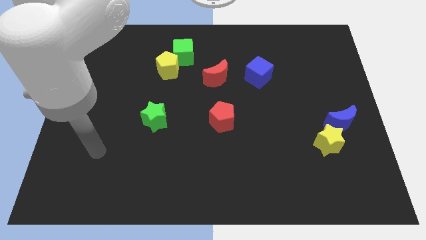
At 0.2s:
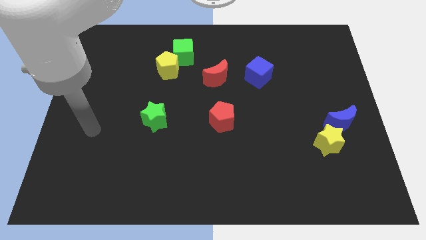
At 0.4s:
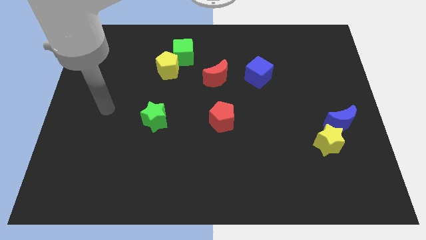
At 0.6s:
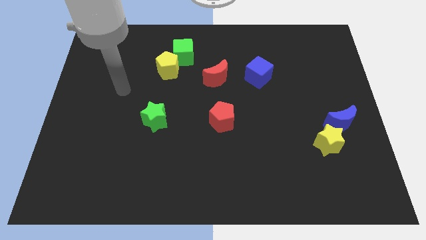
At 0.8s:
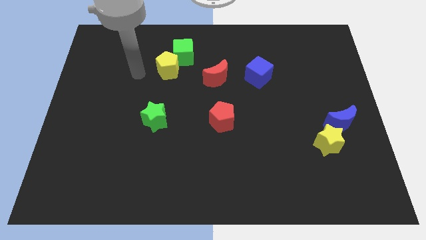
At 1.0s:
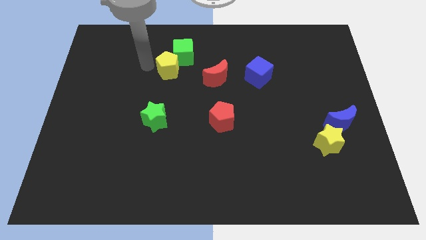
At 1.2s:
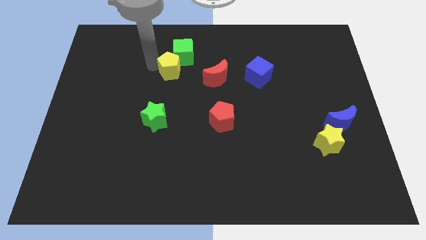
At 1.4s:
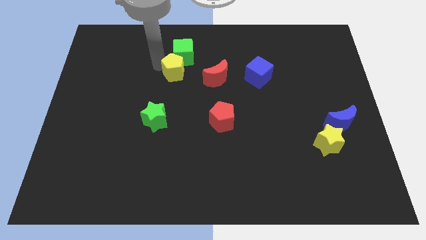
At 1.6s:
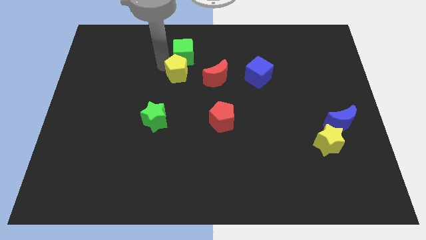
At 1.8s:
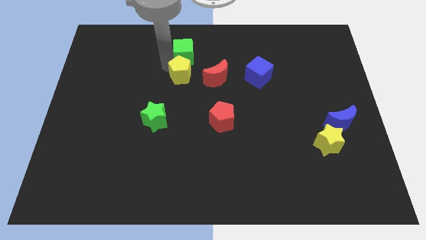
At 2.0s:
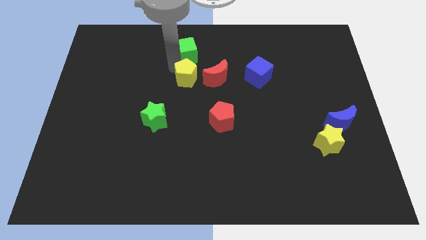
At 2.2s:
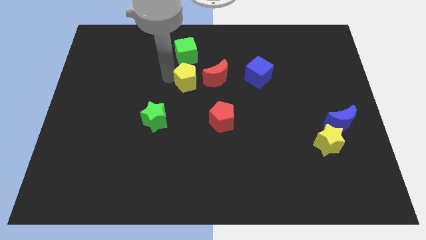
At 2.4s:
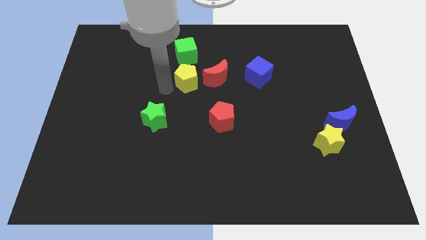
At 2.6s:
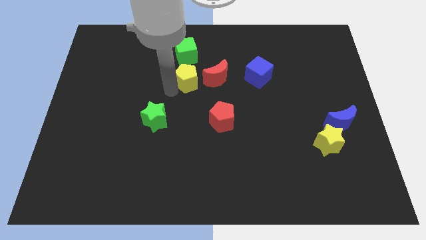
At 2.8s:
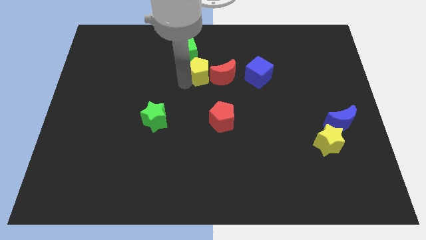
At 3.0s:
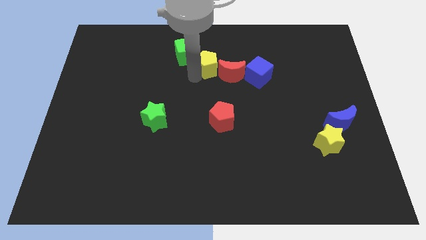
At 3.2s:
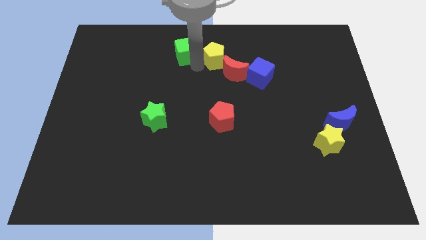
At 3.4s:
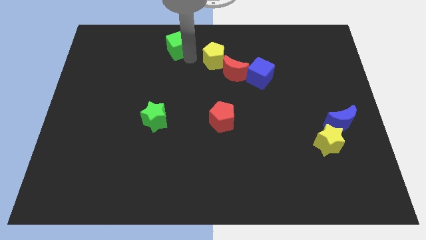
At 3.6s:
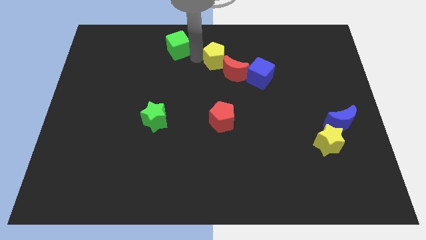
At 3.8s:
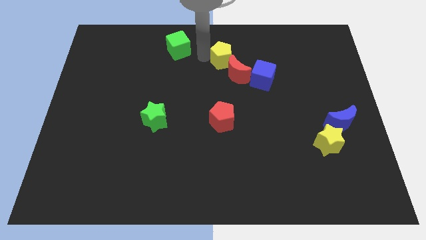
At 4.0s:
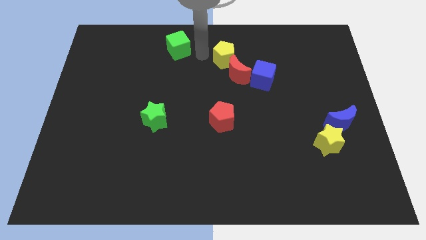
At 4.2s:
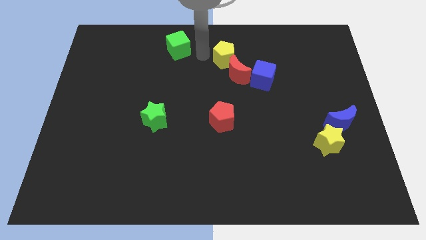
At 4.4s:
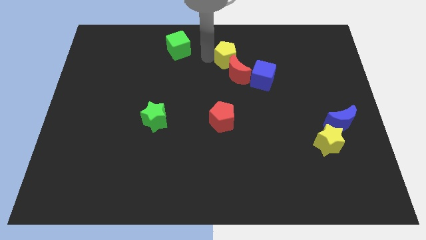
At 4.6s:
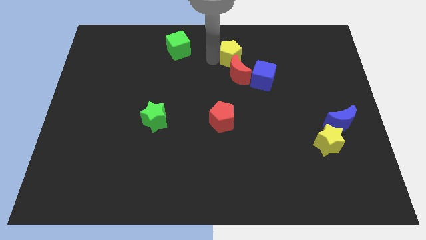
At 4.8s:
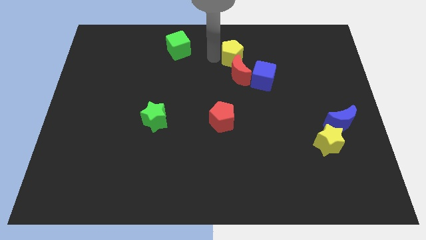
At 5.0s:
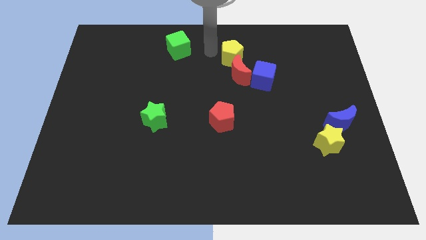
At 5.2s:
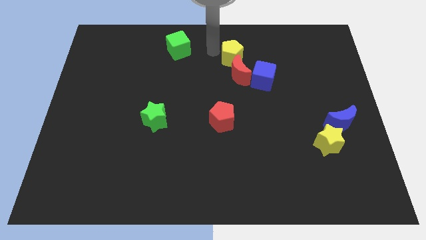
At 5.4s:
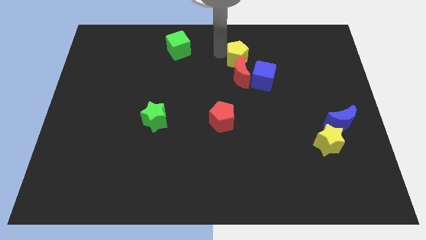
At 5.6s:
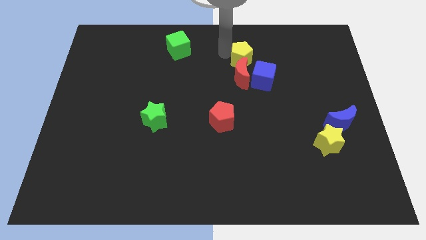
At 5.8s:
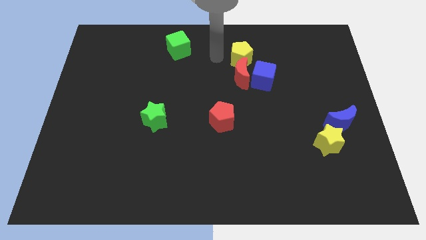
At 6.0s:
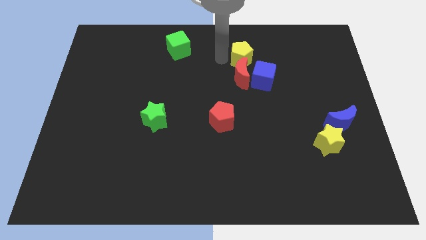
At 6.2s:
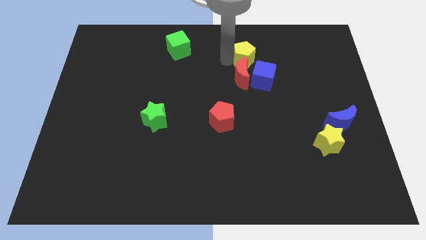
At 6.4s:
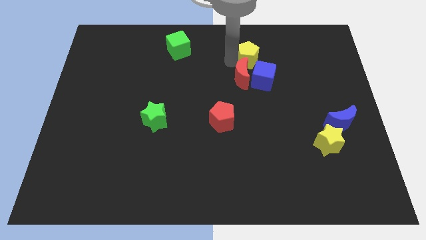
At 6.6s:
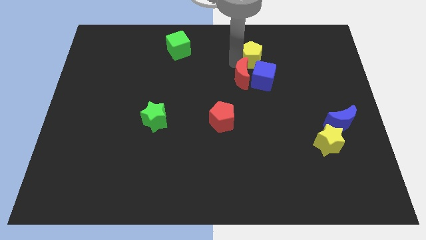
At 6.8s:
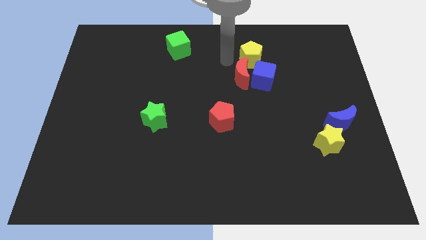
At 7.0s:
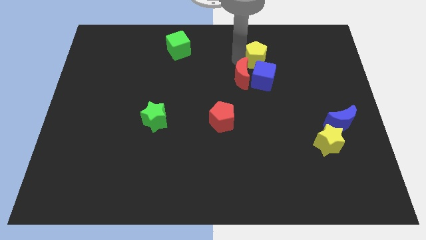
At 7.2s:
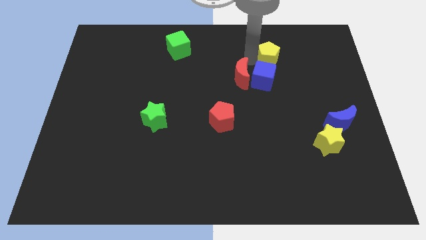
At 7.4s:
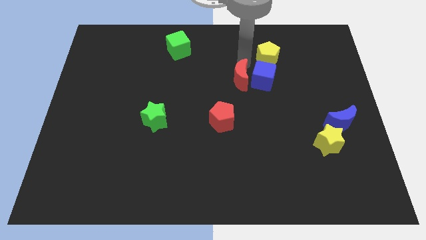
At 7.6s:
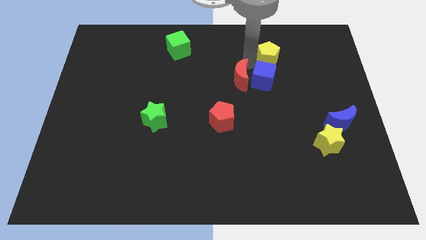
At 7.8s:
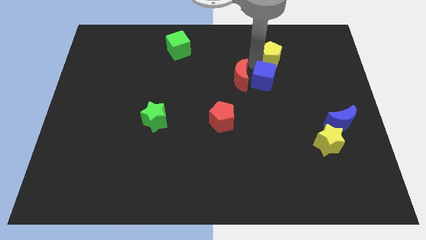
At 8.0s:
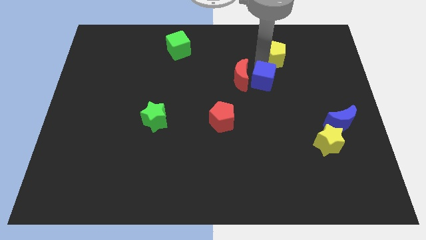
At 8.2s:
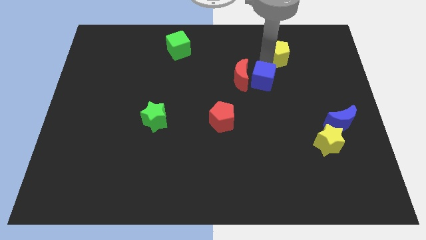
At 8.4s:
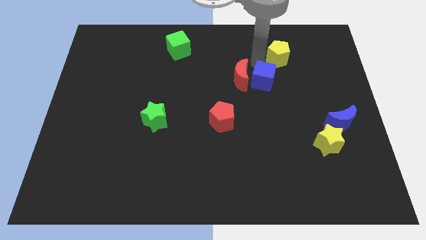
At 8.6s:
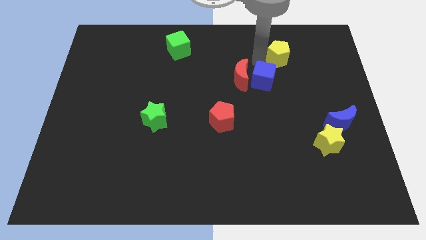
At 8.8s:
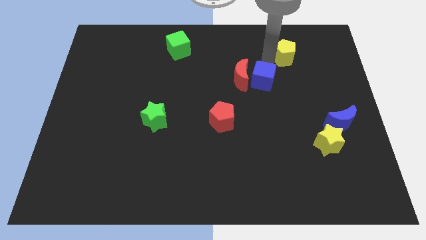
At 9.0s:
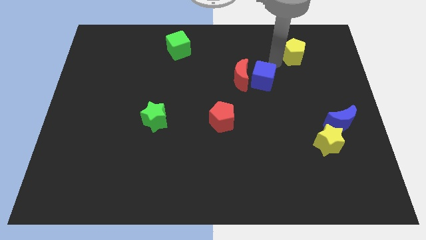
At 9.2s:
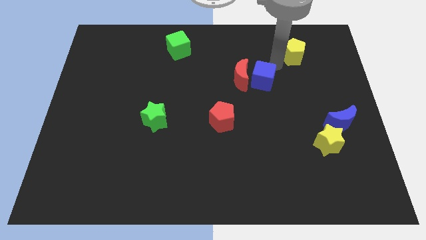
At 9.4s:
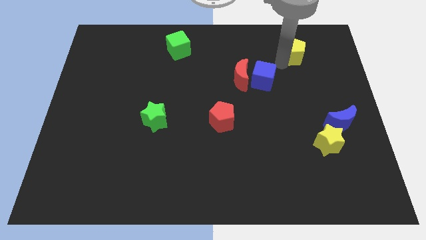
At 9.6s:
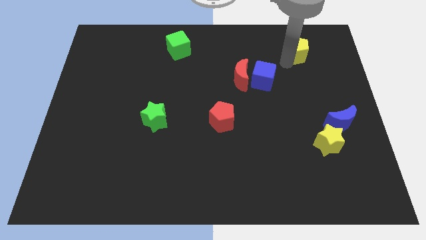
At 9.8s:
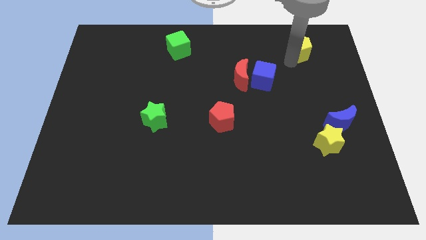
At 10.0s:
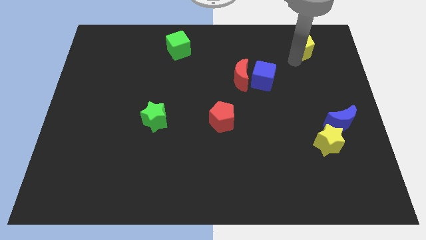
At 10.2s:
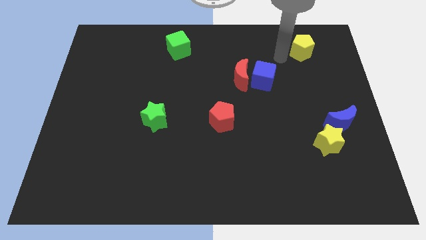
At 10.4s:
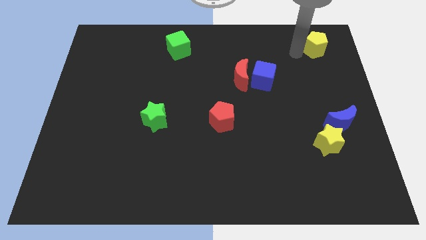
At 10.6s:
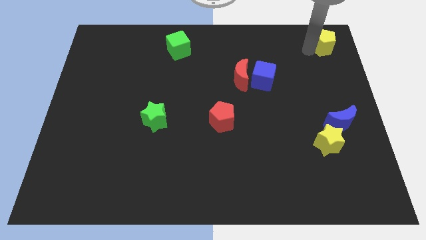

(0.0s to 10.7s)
push the yellow pentagon to the upper right corner

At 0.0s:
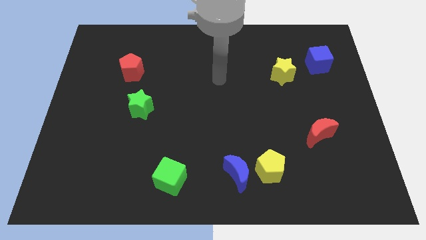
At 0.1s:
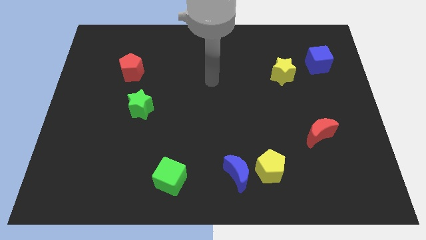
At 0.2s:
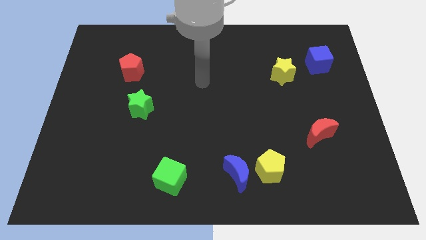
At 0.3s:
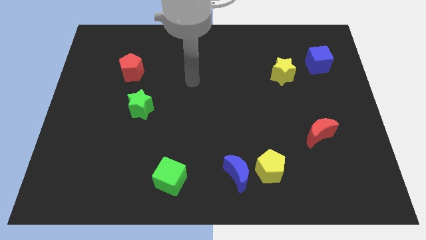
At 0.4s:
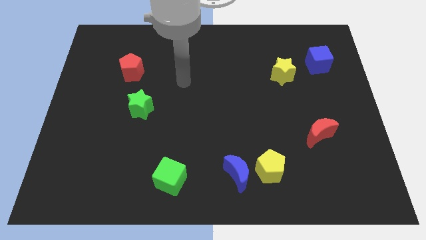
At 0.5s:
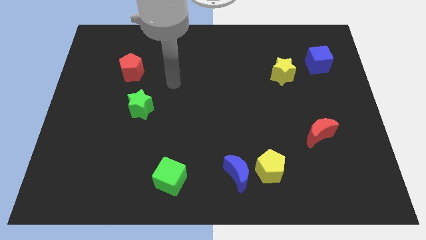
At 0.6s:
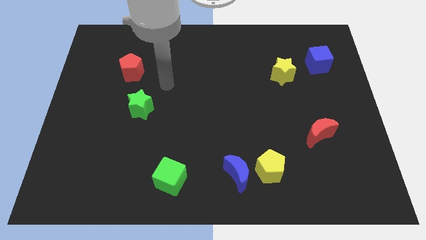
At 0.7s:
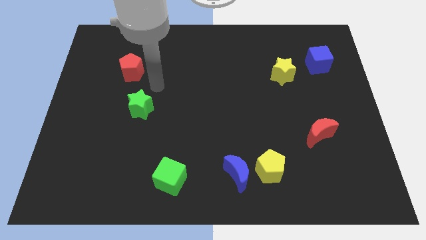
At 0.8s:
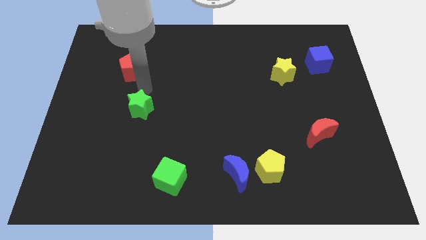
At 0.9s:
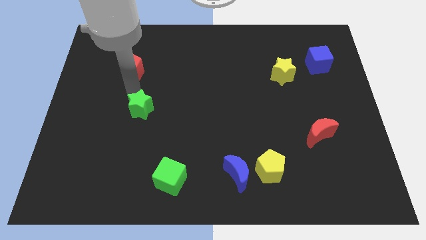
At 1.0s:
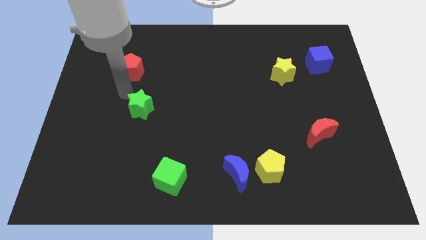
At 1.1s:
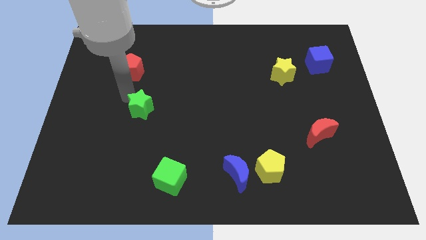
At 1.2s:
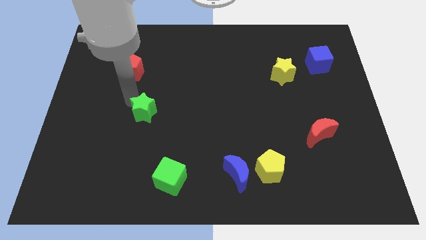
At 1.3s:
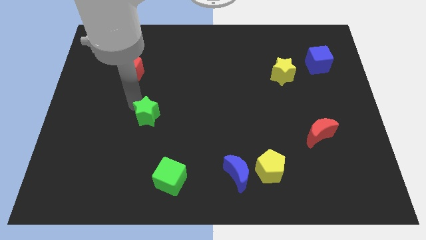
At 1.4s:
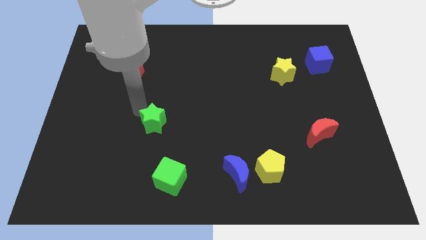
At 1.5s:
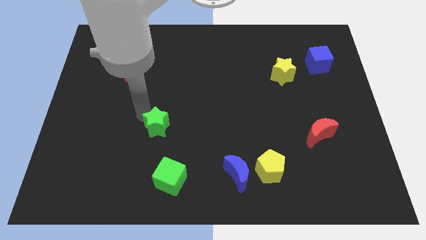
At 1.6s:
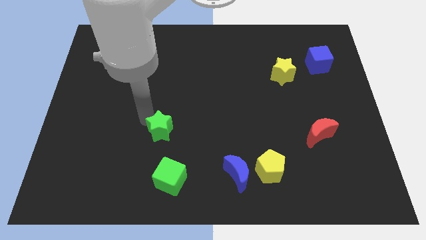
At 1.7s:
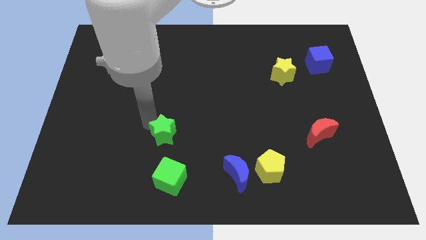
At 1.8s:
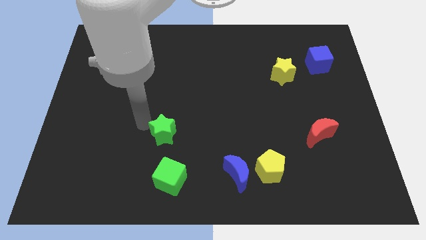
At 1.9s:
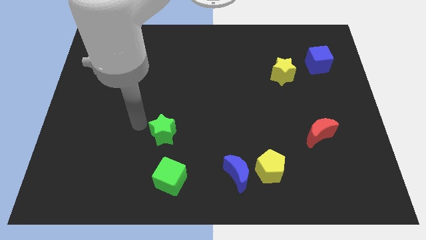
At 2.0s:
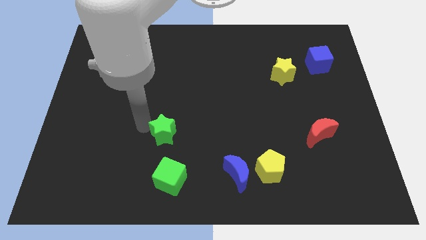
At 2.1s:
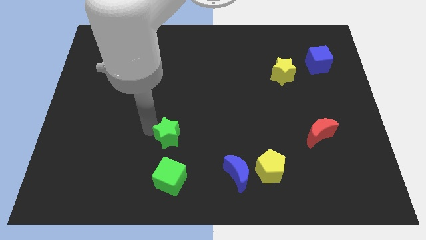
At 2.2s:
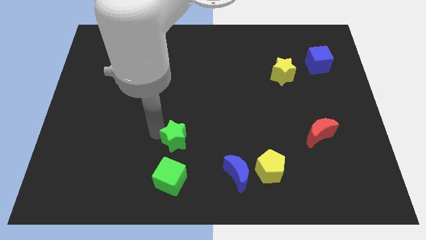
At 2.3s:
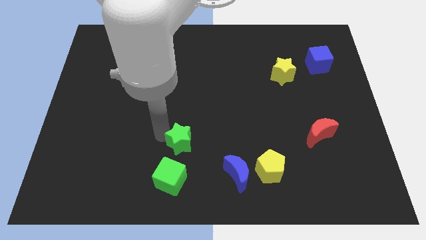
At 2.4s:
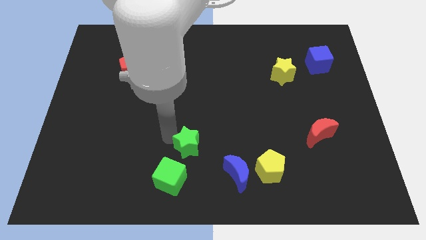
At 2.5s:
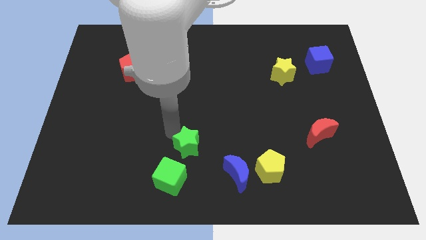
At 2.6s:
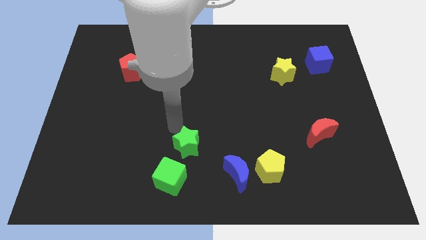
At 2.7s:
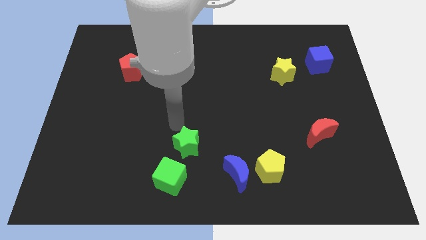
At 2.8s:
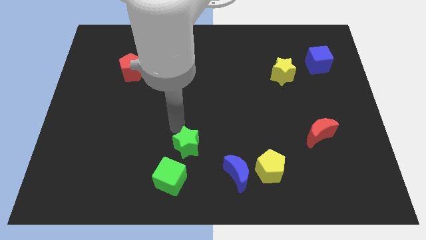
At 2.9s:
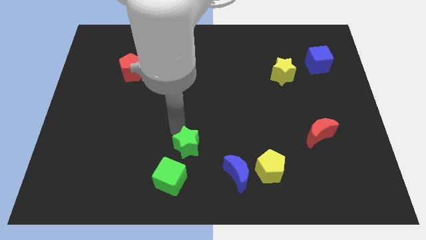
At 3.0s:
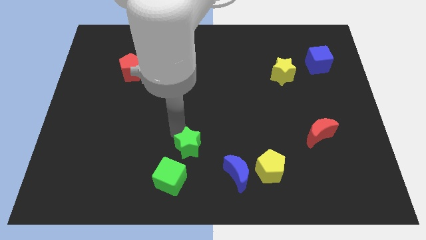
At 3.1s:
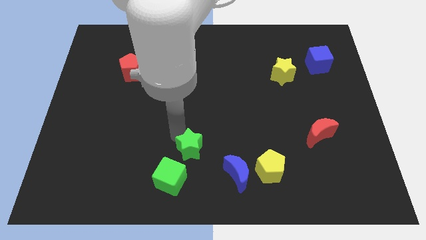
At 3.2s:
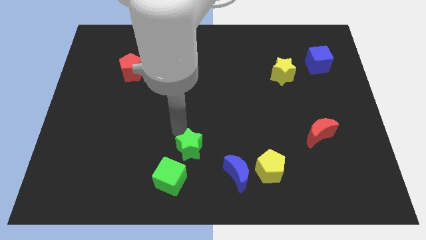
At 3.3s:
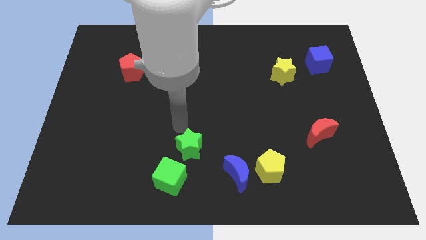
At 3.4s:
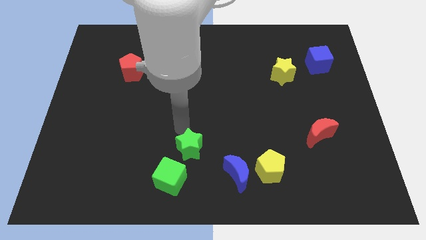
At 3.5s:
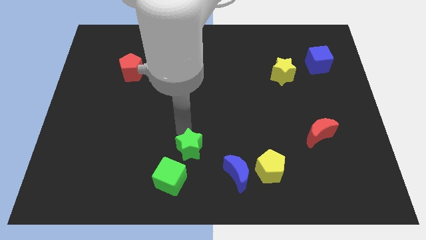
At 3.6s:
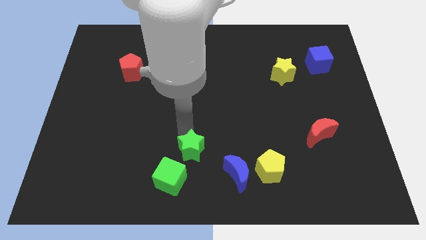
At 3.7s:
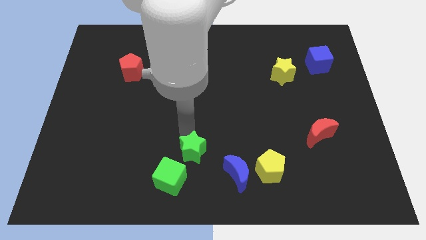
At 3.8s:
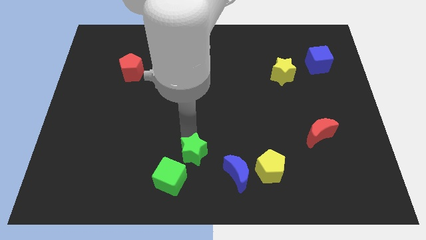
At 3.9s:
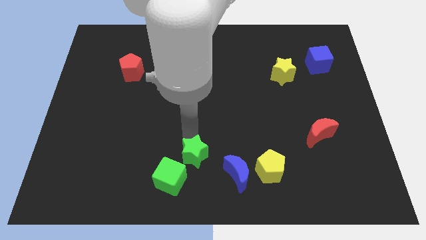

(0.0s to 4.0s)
slide the green star to the bottom
